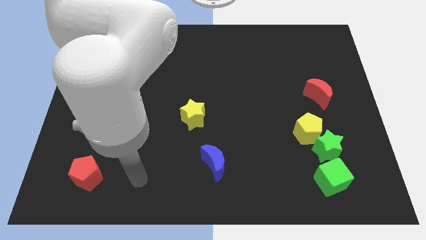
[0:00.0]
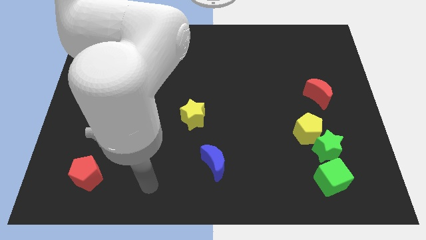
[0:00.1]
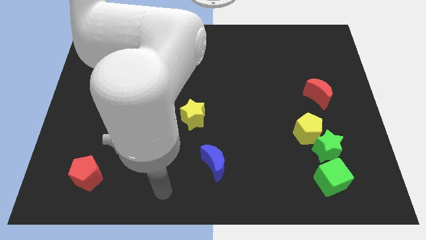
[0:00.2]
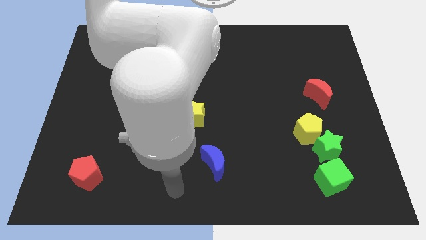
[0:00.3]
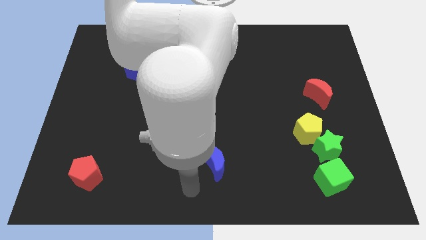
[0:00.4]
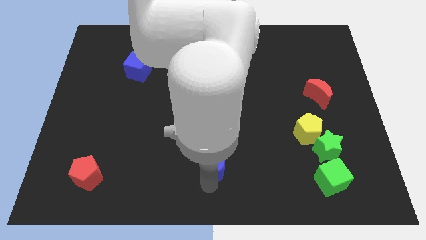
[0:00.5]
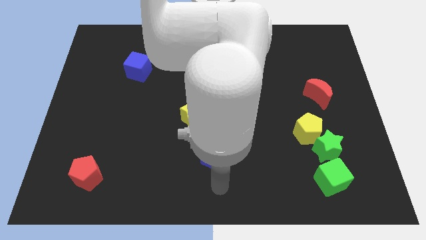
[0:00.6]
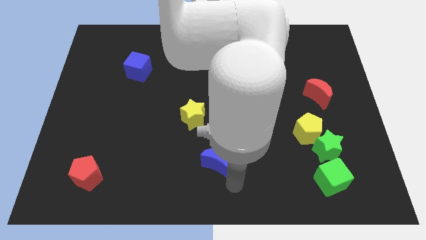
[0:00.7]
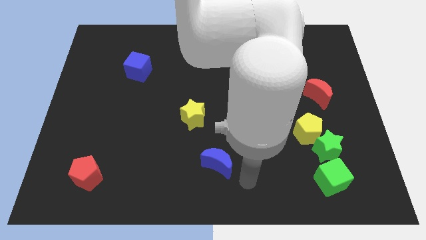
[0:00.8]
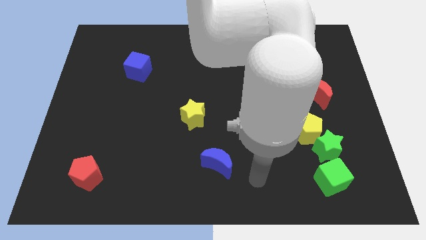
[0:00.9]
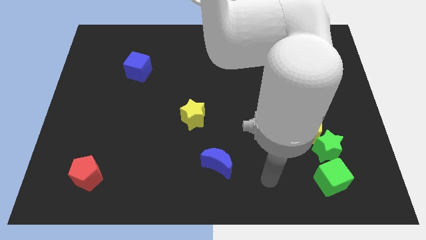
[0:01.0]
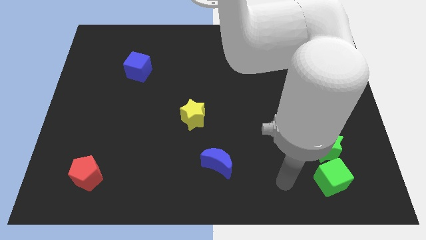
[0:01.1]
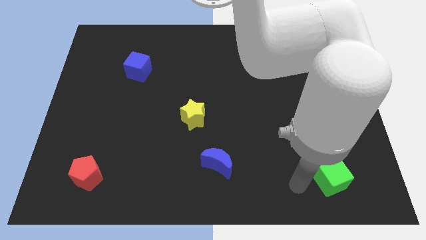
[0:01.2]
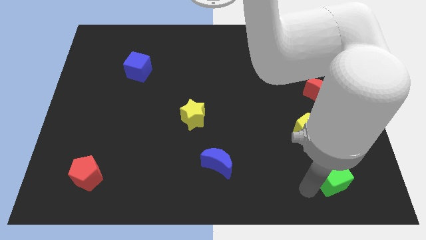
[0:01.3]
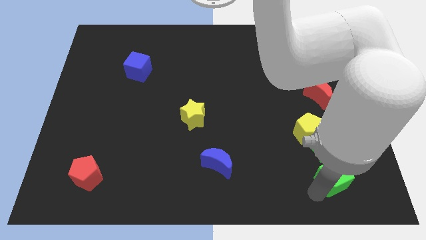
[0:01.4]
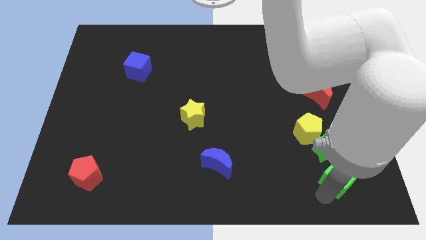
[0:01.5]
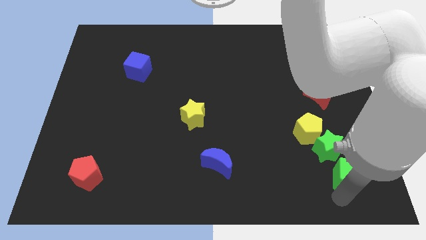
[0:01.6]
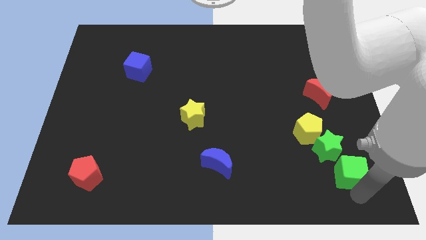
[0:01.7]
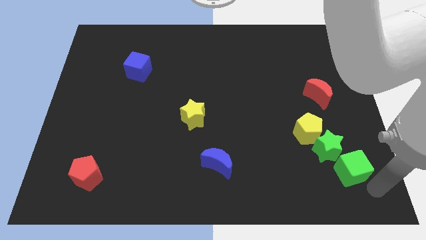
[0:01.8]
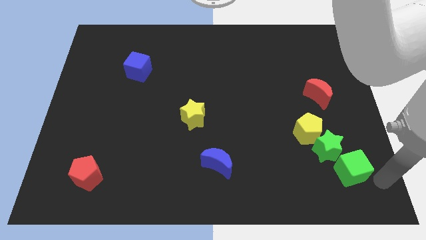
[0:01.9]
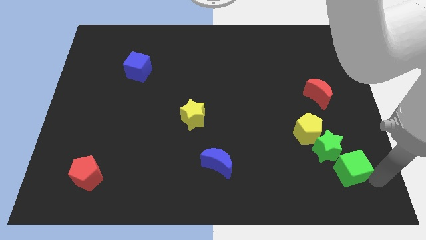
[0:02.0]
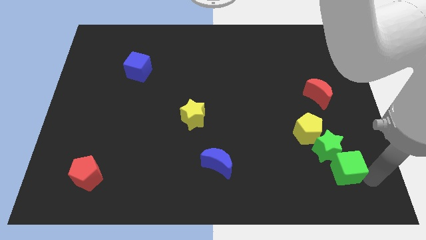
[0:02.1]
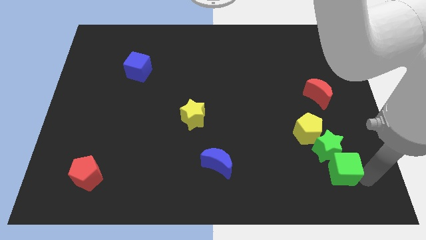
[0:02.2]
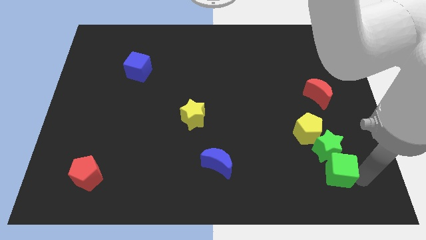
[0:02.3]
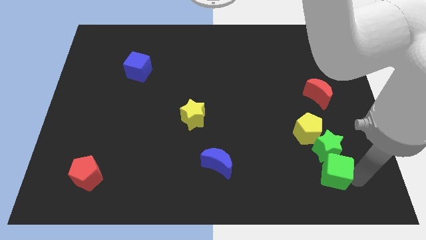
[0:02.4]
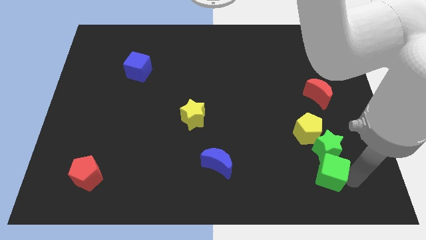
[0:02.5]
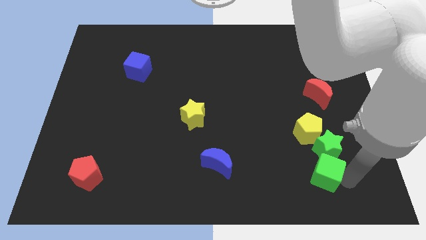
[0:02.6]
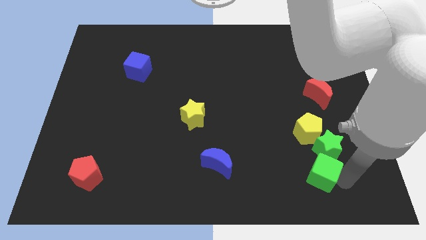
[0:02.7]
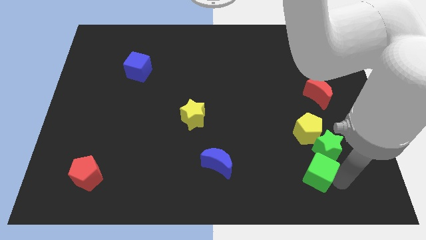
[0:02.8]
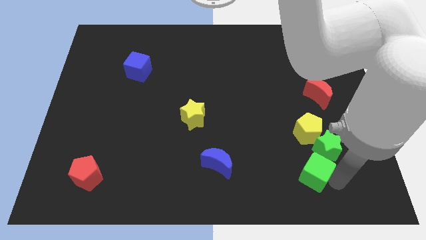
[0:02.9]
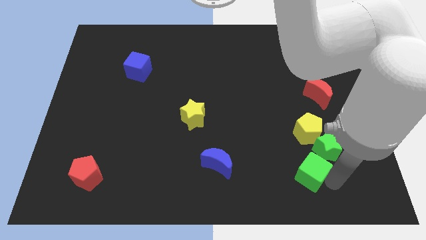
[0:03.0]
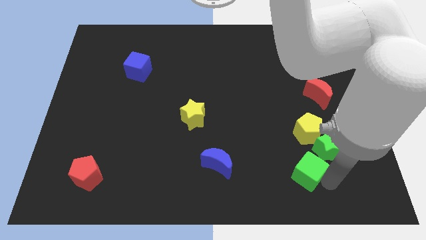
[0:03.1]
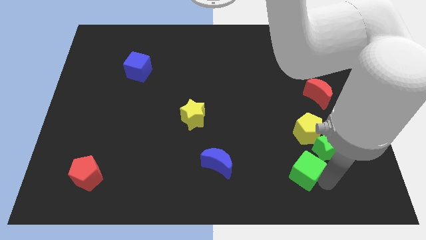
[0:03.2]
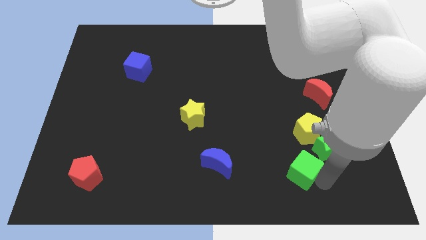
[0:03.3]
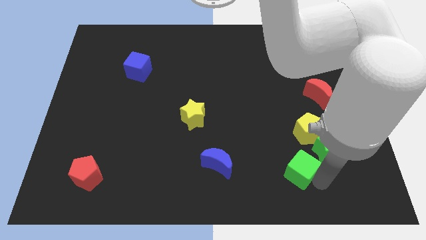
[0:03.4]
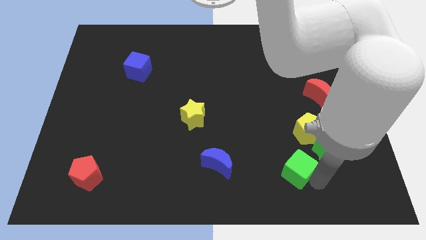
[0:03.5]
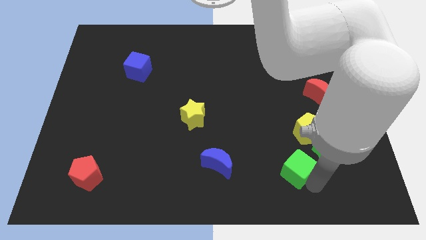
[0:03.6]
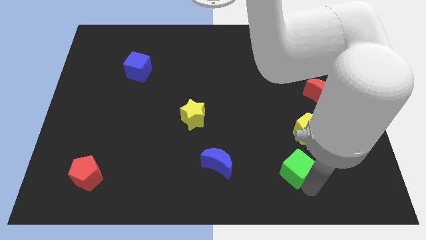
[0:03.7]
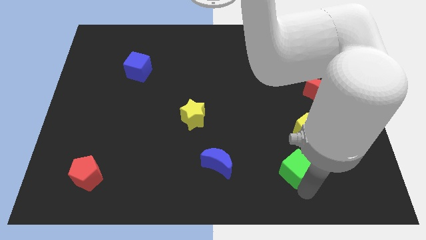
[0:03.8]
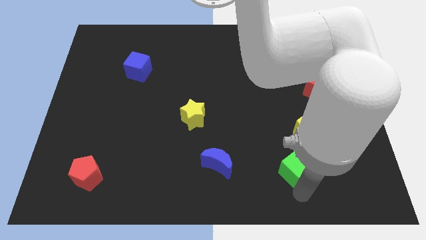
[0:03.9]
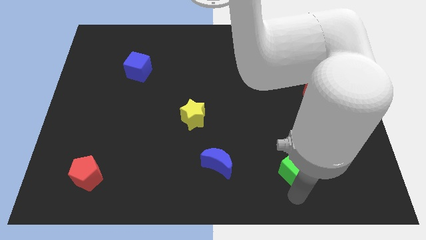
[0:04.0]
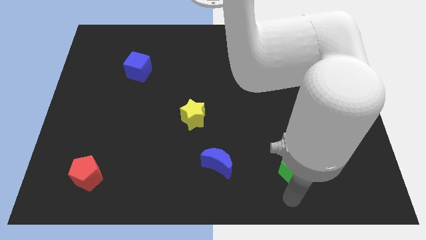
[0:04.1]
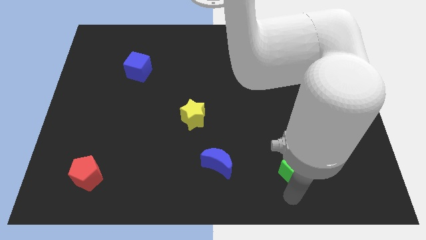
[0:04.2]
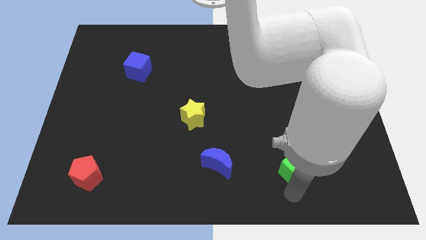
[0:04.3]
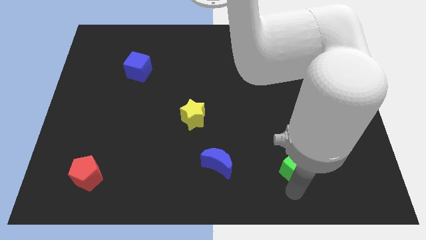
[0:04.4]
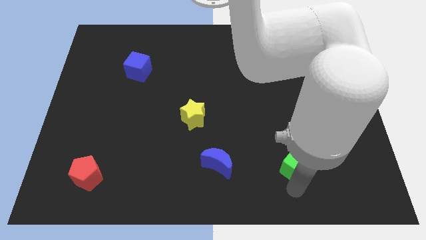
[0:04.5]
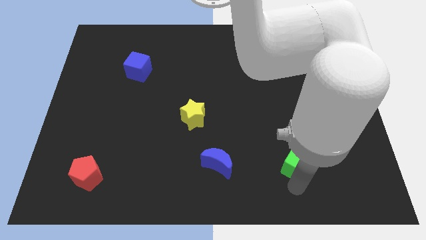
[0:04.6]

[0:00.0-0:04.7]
push the green cube diagonally upwards and left slightly

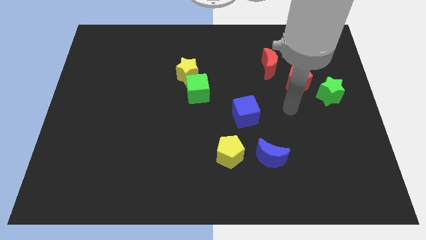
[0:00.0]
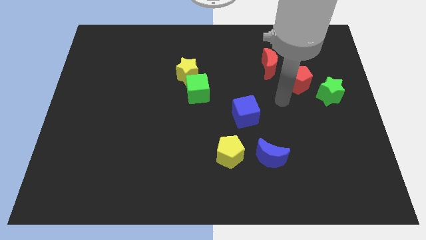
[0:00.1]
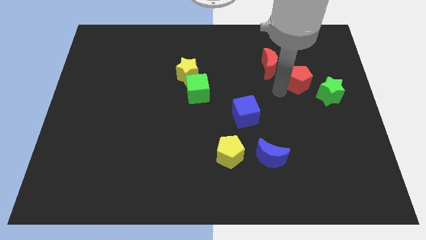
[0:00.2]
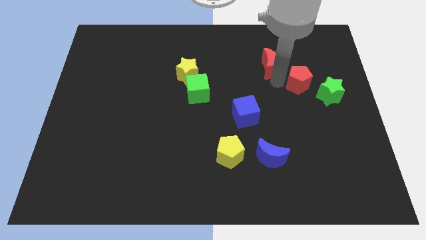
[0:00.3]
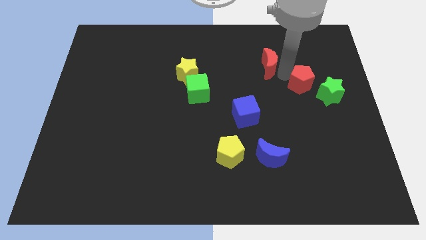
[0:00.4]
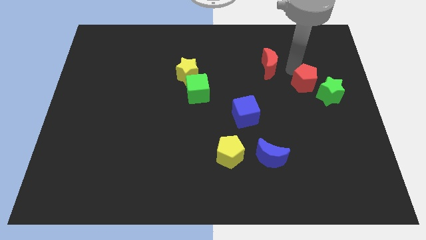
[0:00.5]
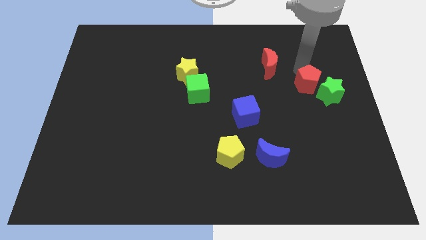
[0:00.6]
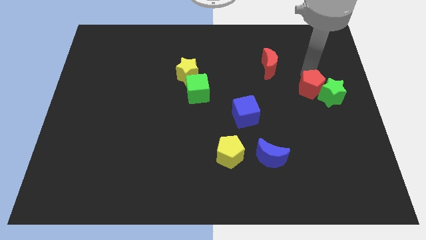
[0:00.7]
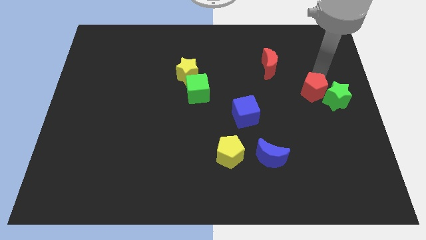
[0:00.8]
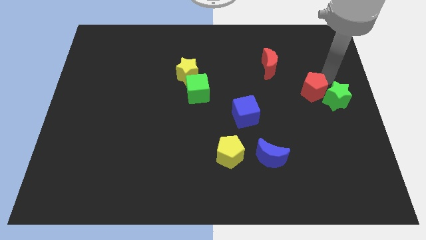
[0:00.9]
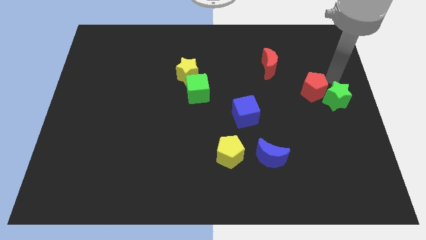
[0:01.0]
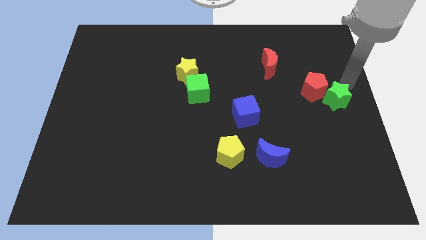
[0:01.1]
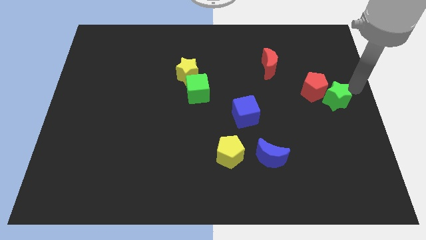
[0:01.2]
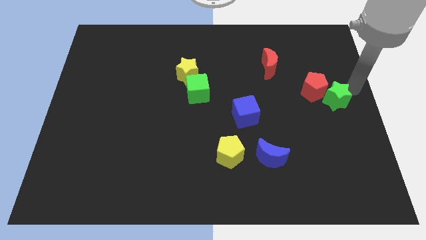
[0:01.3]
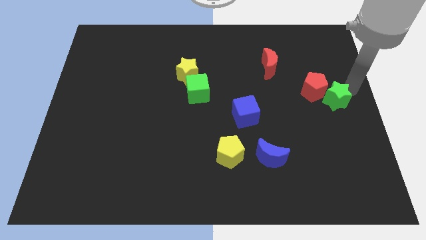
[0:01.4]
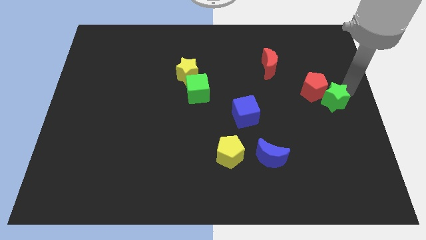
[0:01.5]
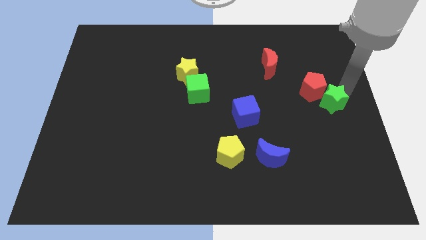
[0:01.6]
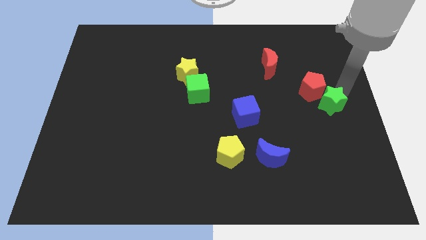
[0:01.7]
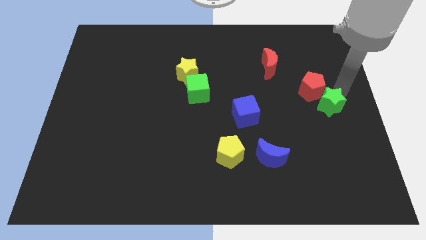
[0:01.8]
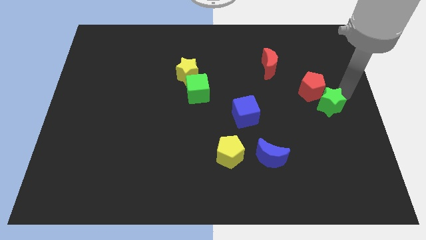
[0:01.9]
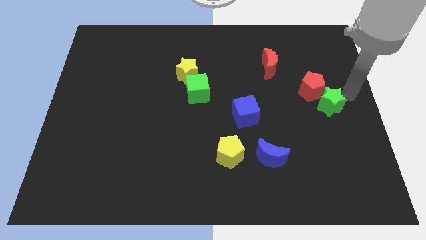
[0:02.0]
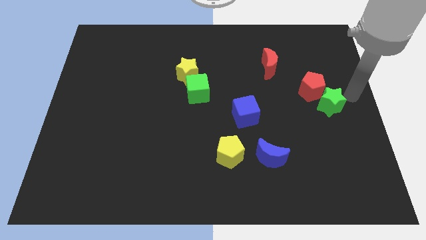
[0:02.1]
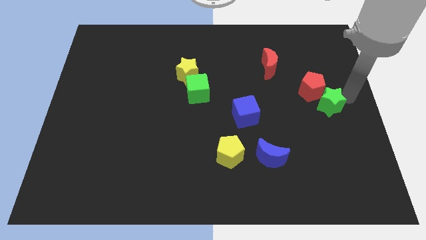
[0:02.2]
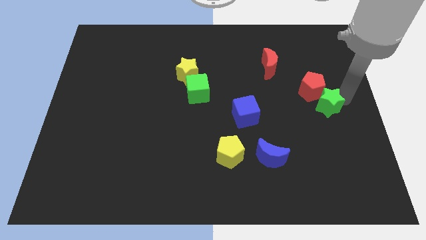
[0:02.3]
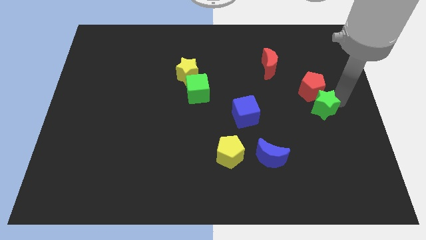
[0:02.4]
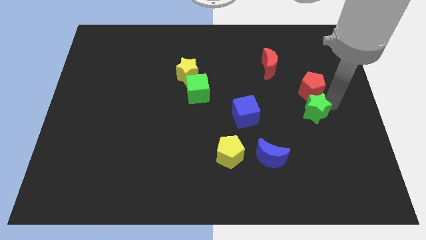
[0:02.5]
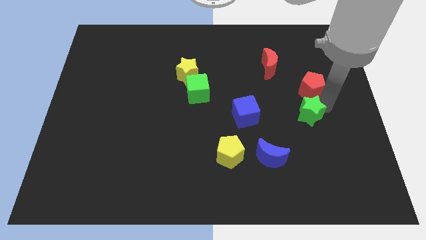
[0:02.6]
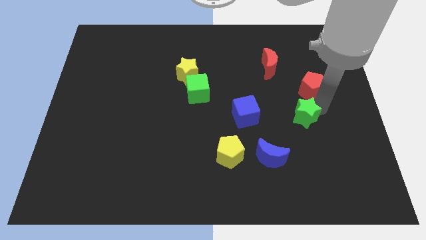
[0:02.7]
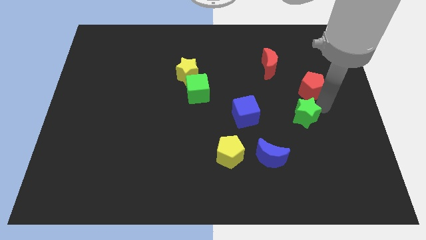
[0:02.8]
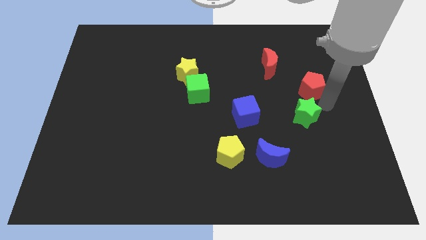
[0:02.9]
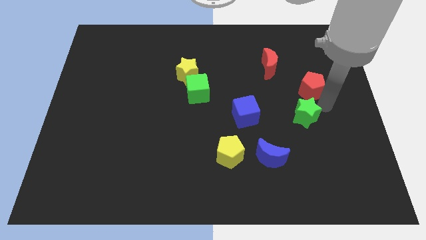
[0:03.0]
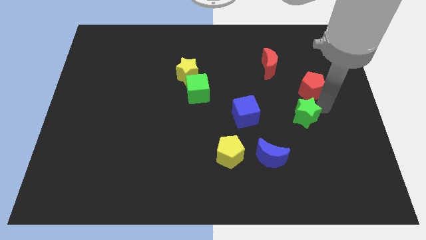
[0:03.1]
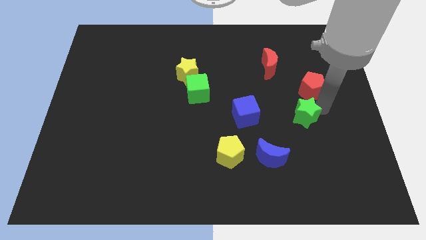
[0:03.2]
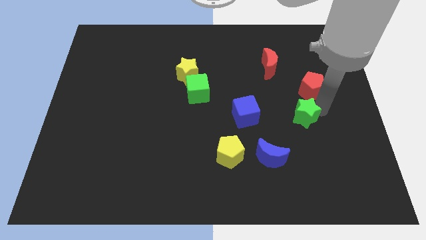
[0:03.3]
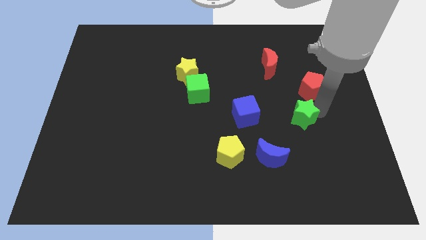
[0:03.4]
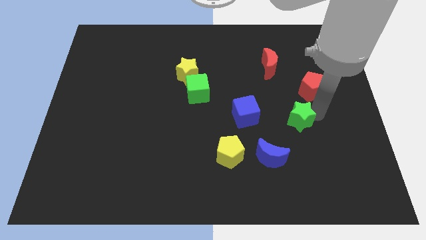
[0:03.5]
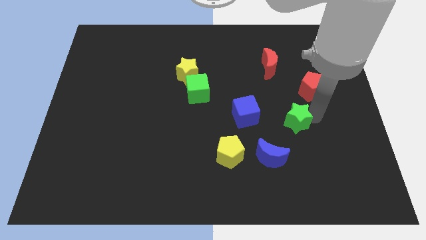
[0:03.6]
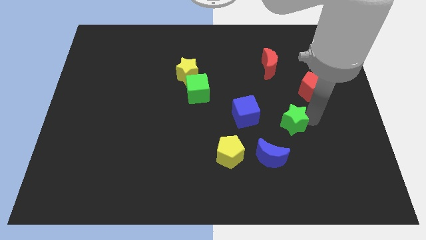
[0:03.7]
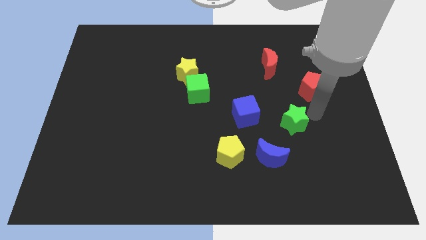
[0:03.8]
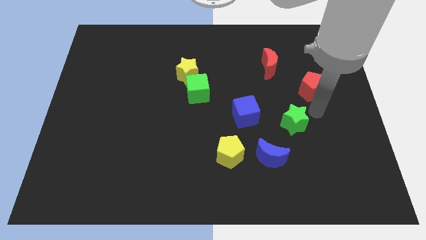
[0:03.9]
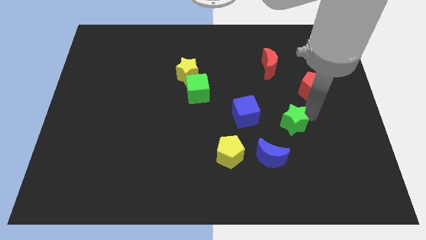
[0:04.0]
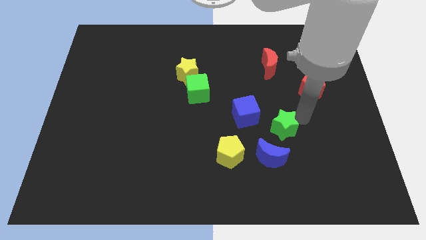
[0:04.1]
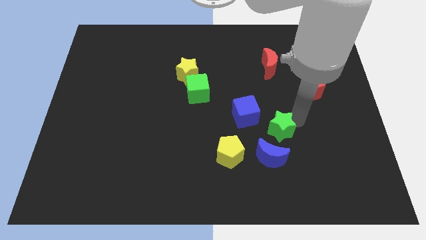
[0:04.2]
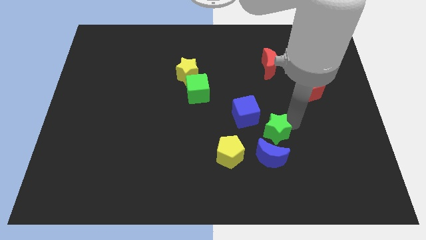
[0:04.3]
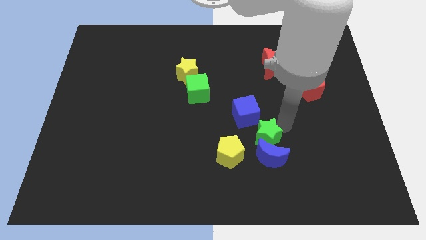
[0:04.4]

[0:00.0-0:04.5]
slide the green star downwards and then left
